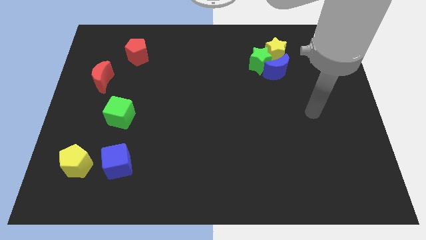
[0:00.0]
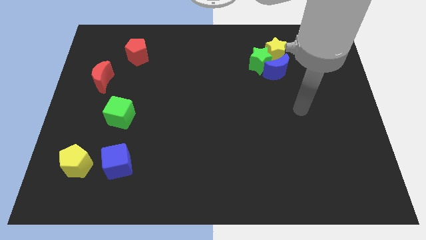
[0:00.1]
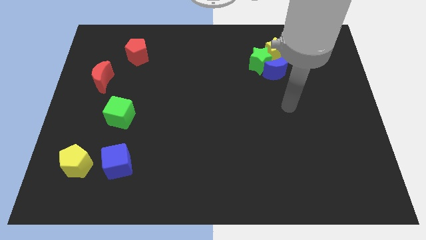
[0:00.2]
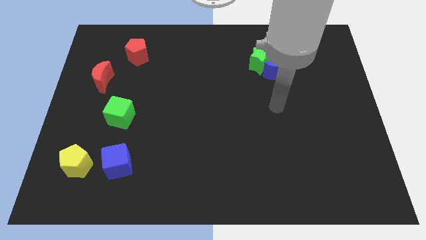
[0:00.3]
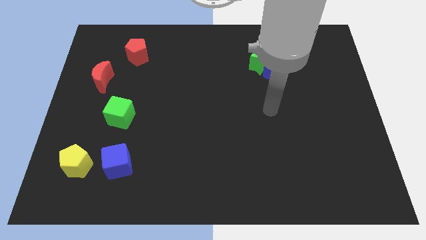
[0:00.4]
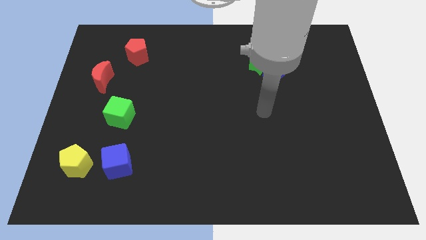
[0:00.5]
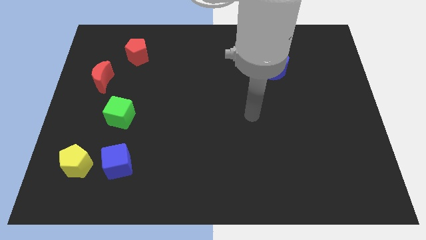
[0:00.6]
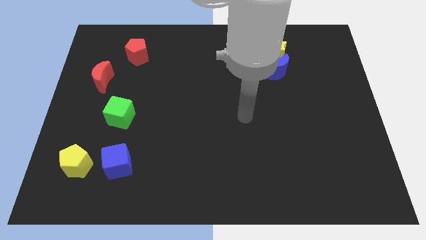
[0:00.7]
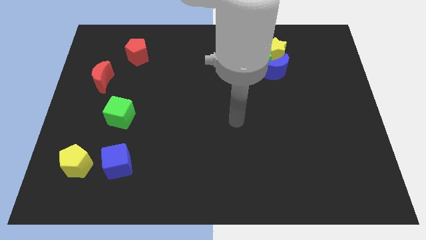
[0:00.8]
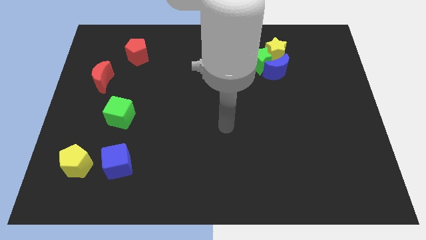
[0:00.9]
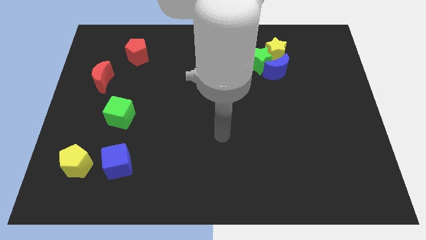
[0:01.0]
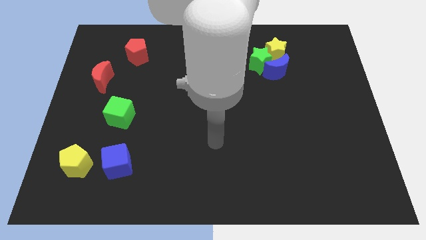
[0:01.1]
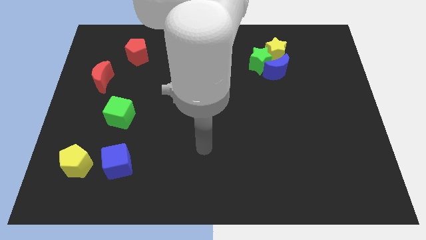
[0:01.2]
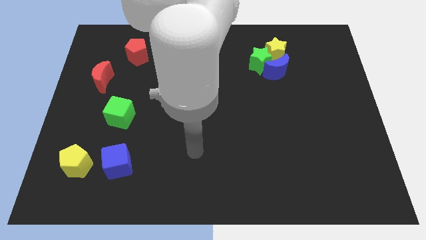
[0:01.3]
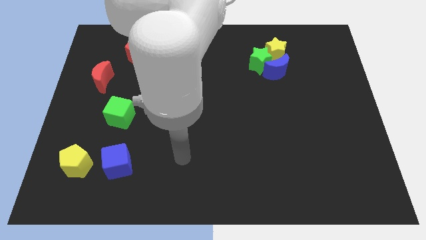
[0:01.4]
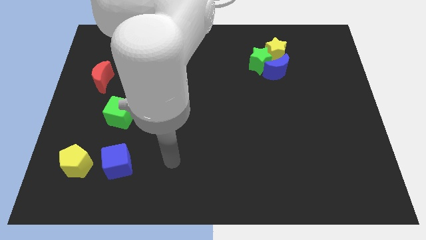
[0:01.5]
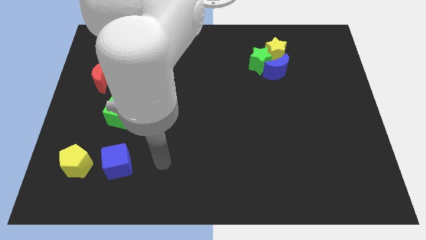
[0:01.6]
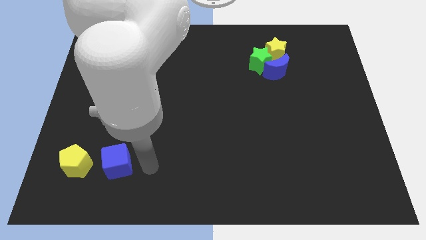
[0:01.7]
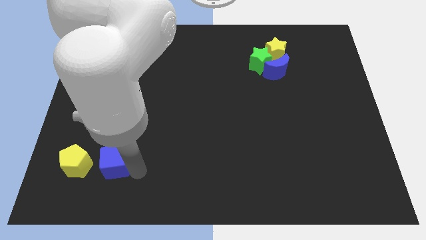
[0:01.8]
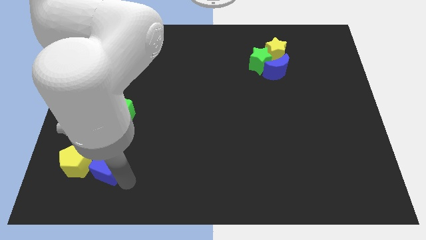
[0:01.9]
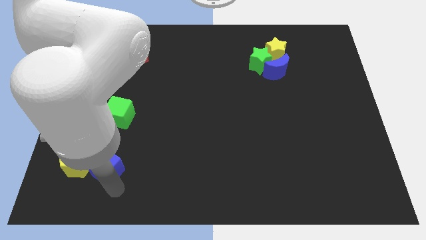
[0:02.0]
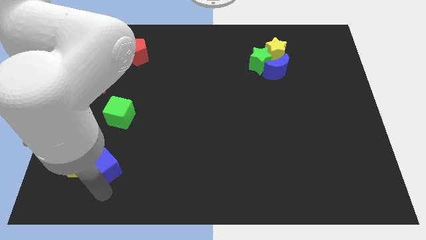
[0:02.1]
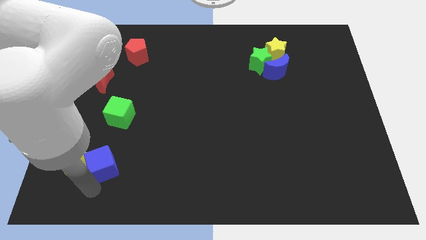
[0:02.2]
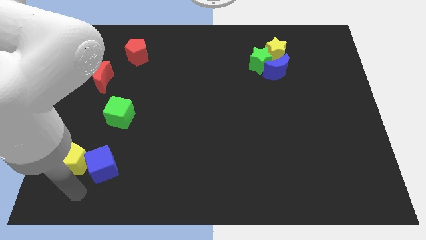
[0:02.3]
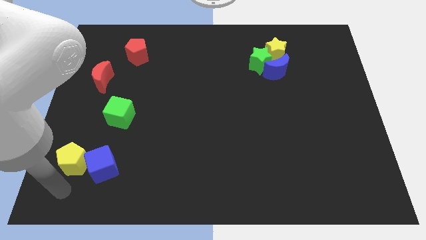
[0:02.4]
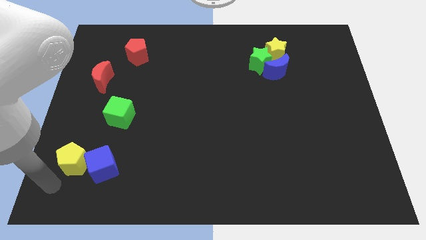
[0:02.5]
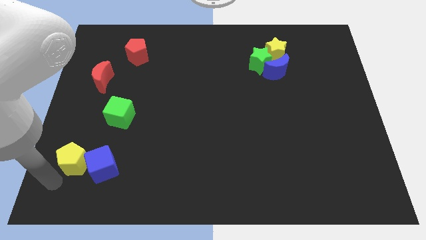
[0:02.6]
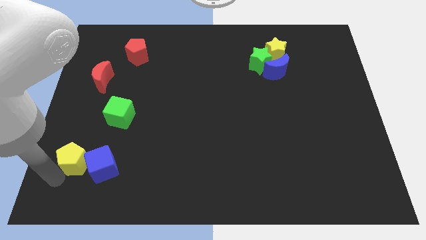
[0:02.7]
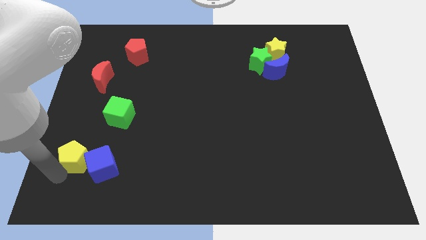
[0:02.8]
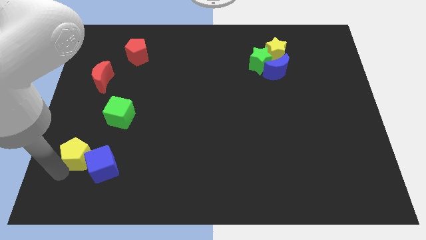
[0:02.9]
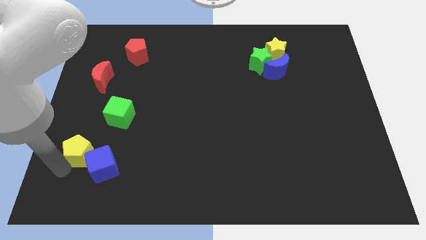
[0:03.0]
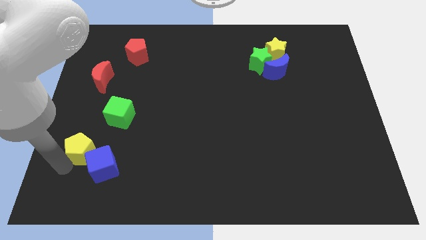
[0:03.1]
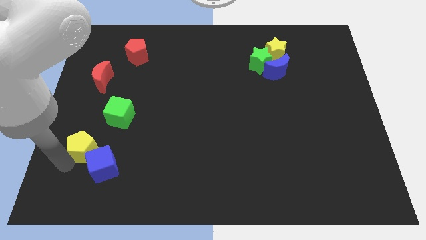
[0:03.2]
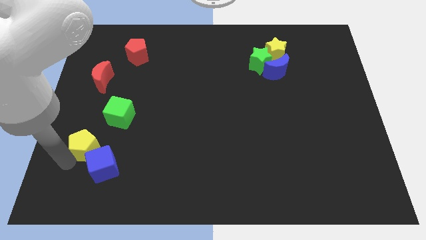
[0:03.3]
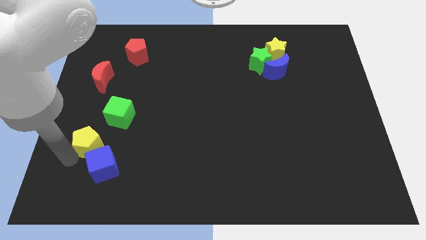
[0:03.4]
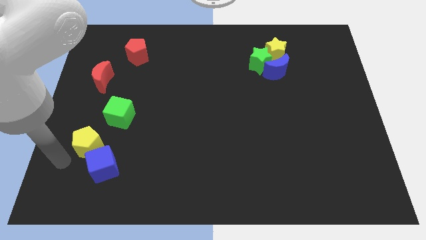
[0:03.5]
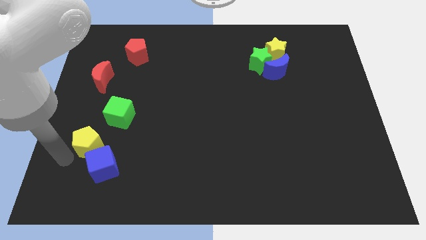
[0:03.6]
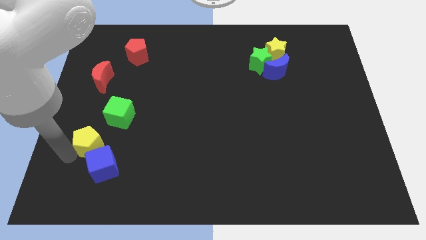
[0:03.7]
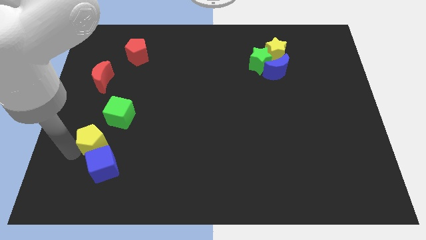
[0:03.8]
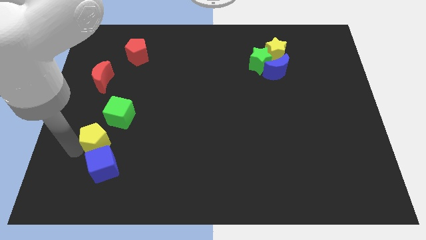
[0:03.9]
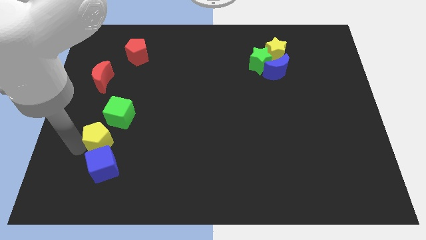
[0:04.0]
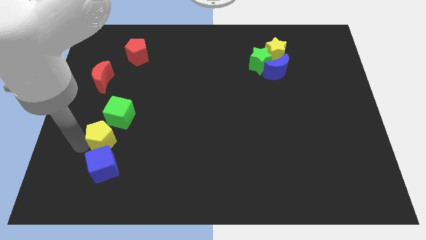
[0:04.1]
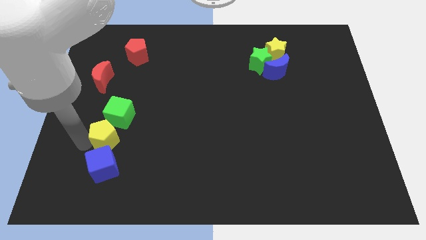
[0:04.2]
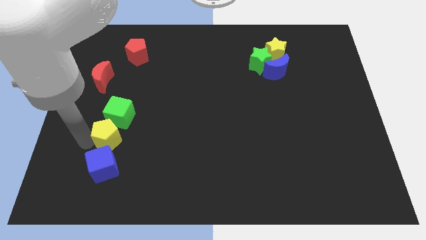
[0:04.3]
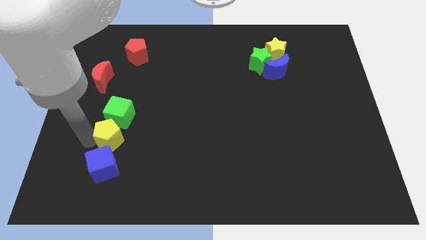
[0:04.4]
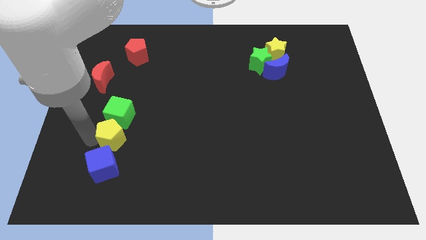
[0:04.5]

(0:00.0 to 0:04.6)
put the yellow pentagon towards the green cube

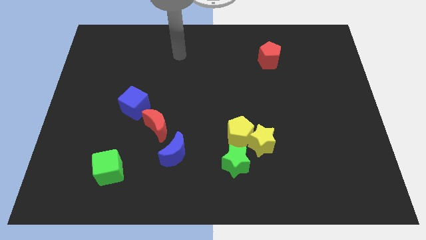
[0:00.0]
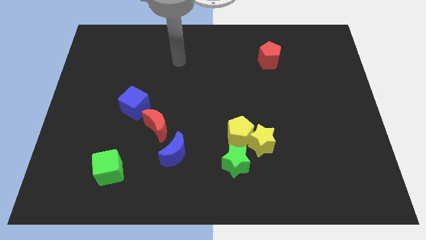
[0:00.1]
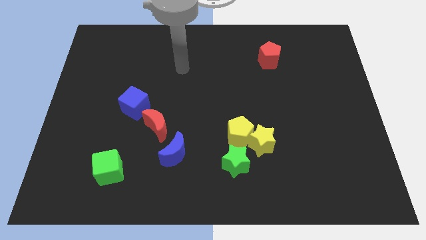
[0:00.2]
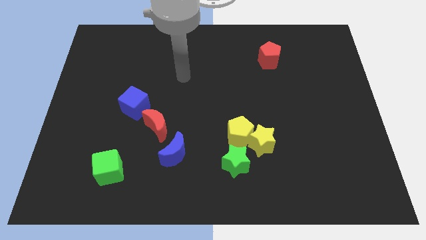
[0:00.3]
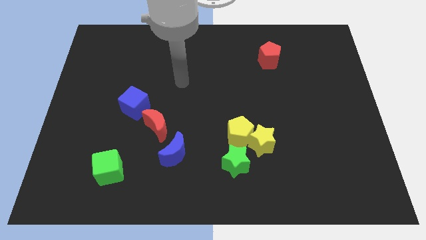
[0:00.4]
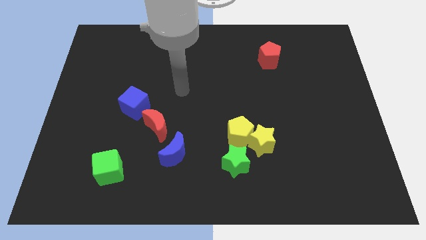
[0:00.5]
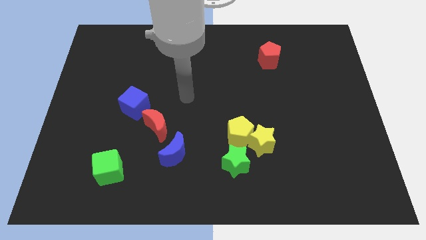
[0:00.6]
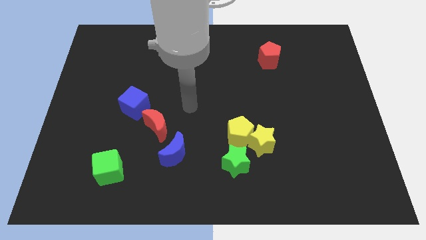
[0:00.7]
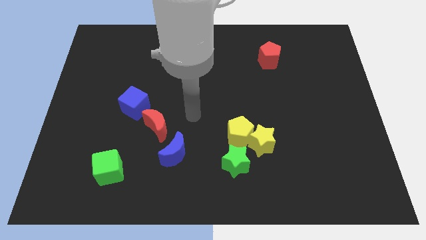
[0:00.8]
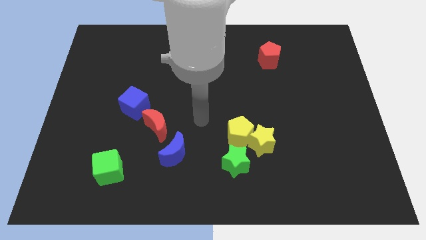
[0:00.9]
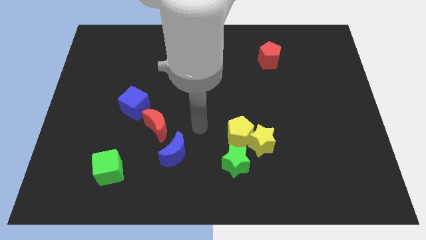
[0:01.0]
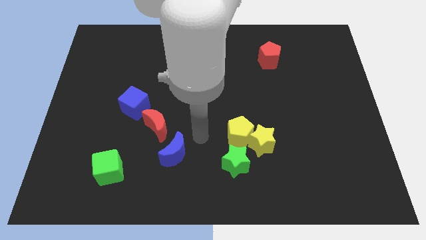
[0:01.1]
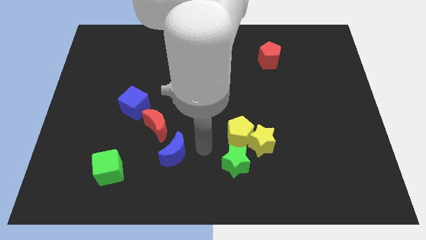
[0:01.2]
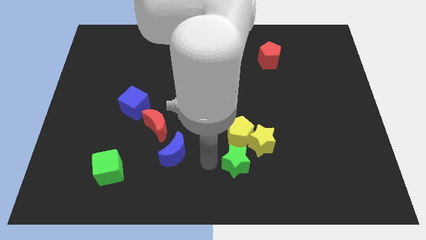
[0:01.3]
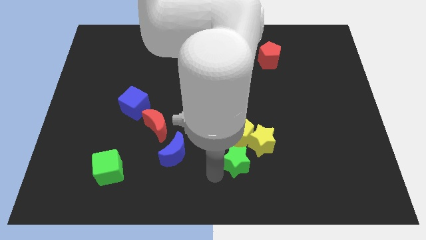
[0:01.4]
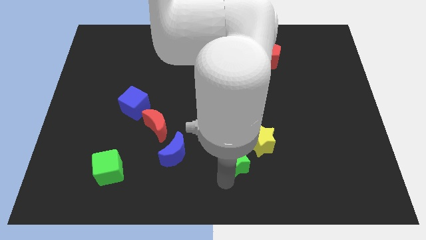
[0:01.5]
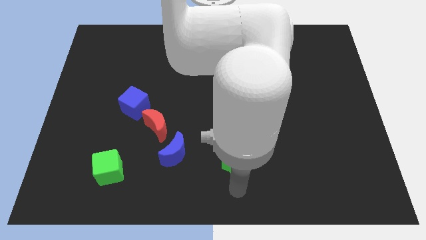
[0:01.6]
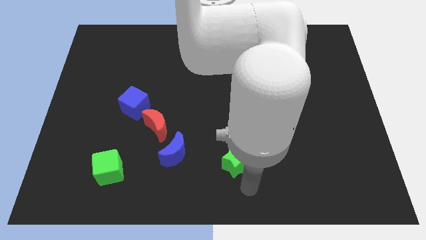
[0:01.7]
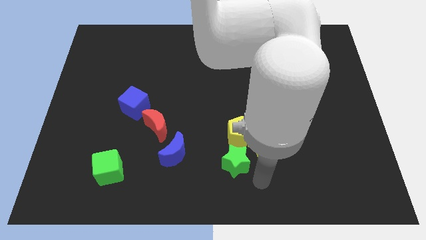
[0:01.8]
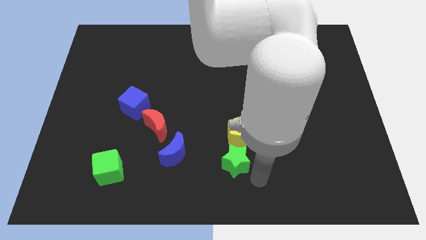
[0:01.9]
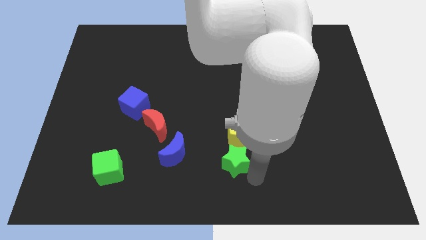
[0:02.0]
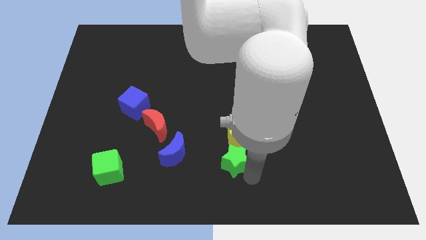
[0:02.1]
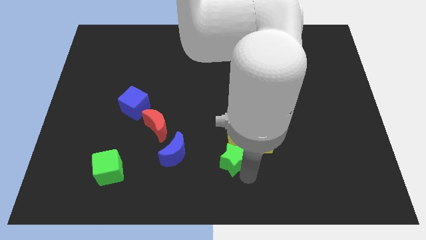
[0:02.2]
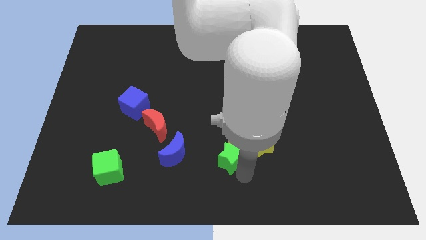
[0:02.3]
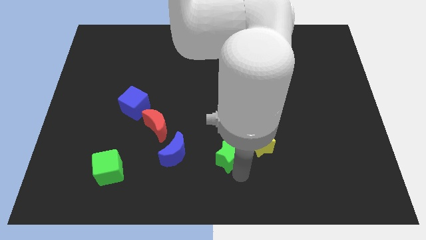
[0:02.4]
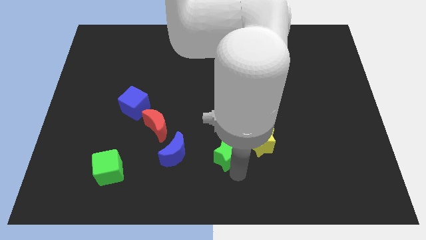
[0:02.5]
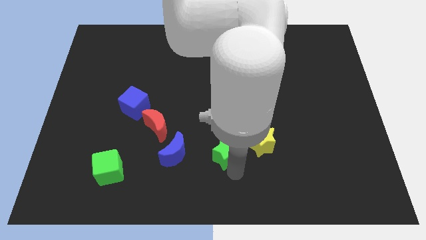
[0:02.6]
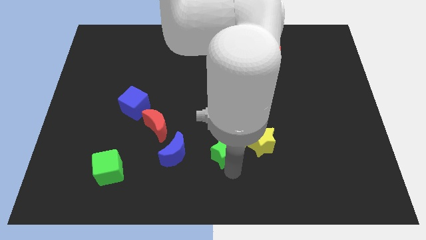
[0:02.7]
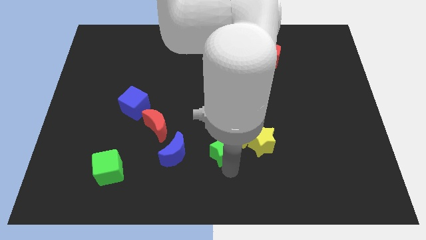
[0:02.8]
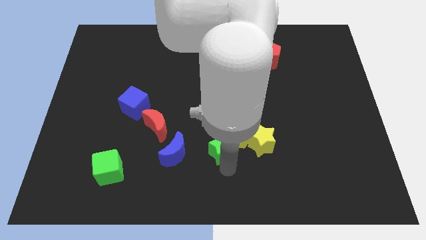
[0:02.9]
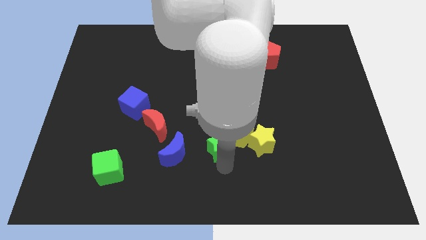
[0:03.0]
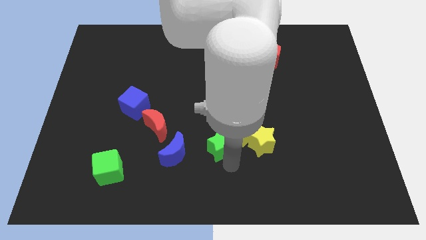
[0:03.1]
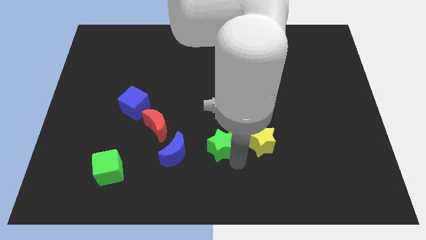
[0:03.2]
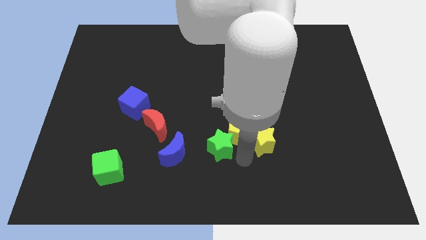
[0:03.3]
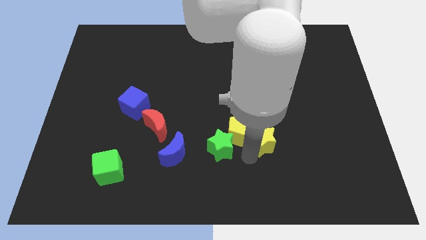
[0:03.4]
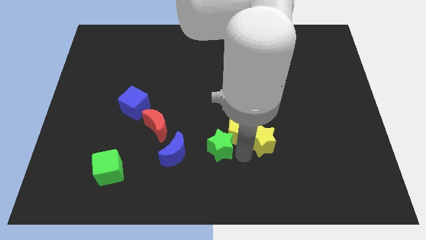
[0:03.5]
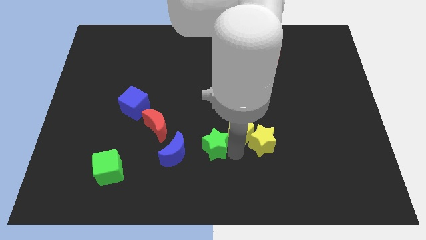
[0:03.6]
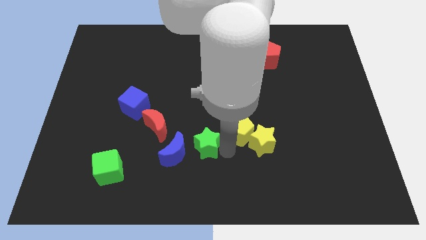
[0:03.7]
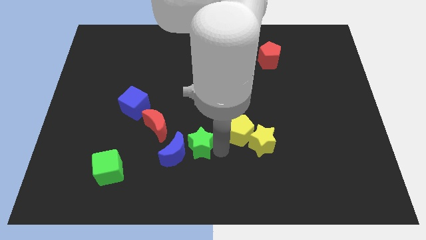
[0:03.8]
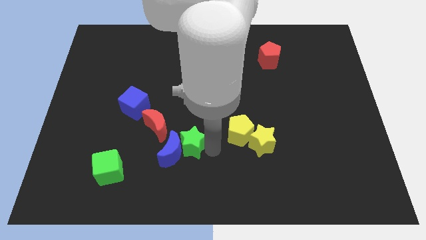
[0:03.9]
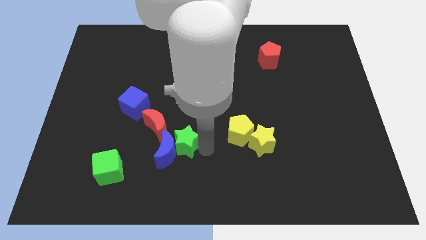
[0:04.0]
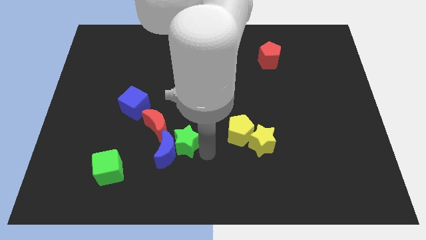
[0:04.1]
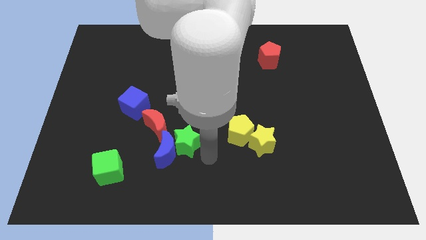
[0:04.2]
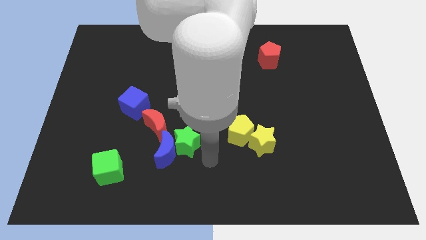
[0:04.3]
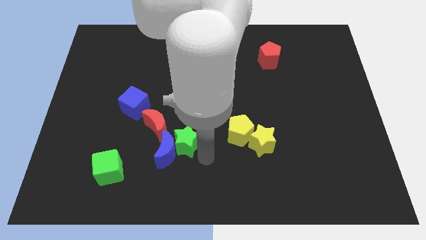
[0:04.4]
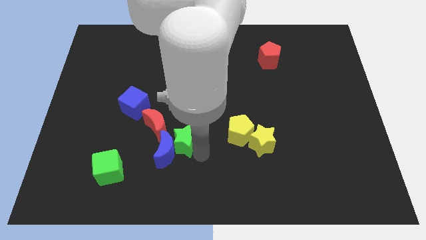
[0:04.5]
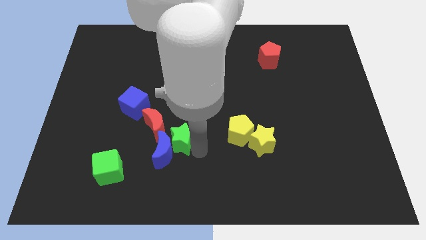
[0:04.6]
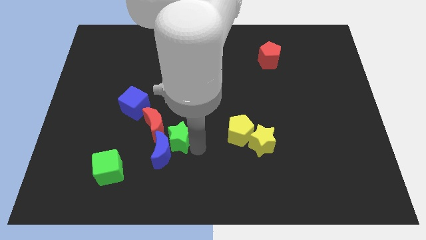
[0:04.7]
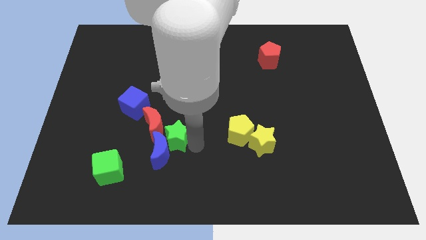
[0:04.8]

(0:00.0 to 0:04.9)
slide the green star towards the red moon
